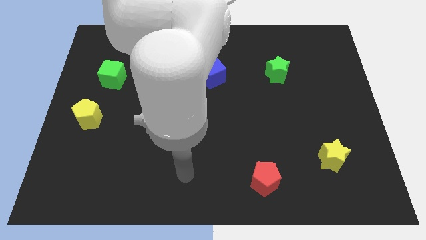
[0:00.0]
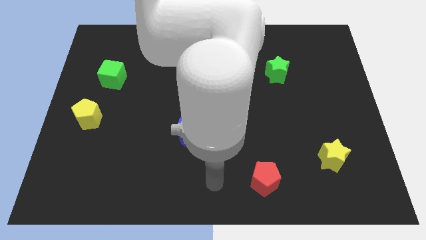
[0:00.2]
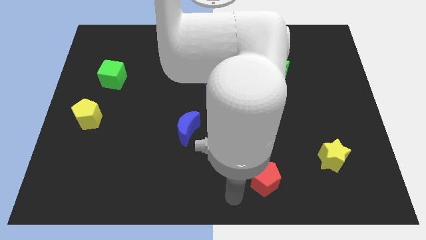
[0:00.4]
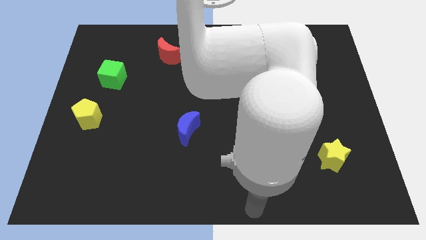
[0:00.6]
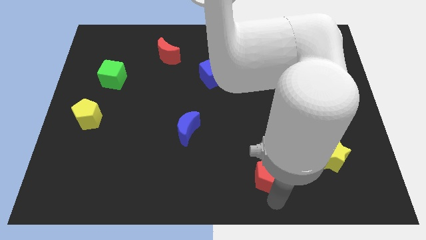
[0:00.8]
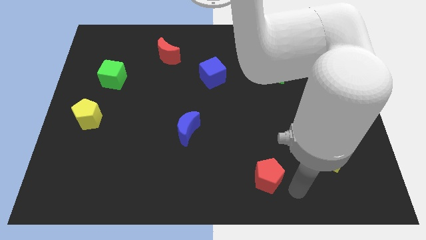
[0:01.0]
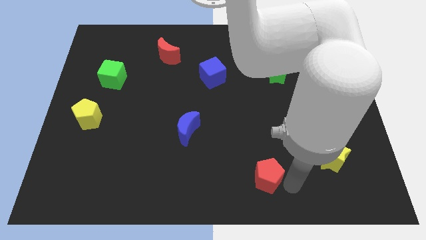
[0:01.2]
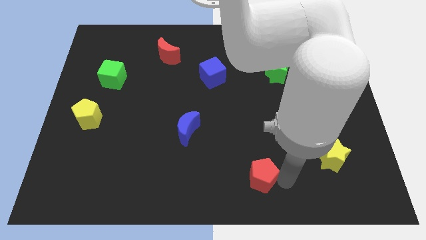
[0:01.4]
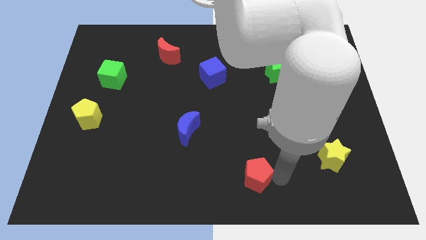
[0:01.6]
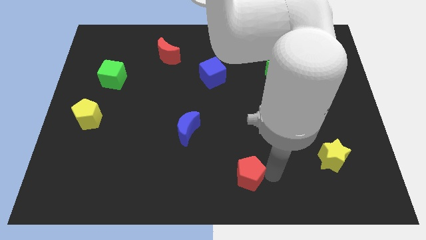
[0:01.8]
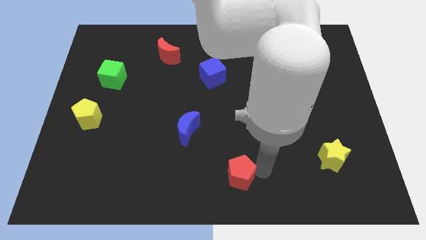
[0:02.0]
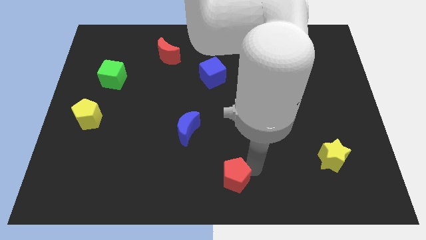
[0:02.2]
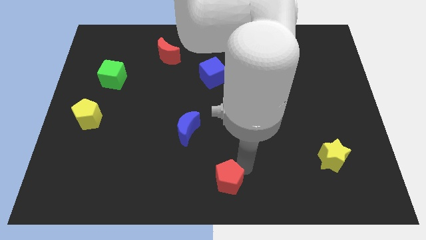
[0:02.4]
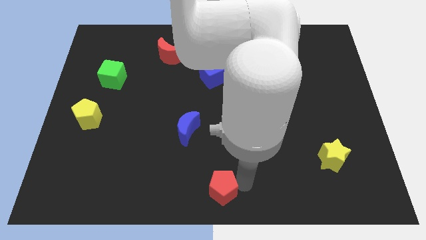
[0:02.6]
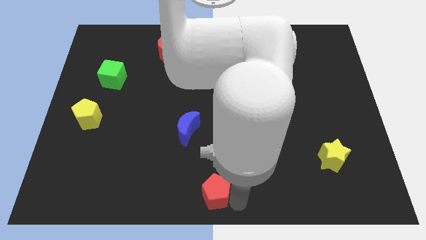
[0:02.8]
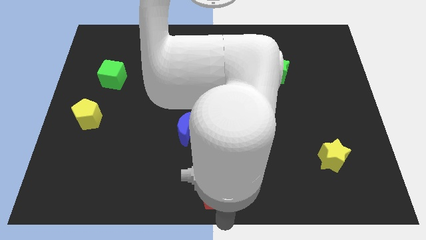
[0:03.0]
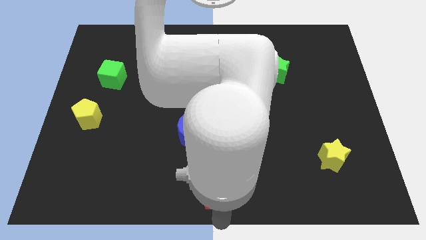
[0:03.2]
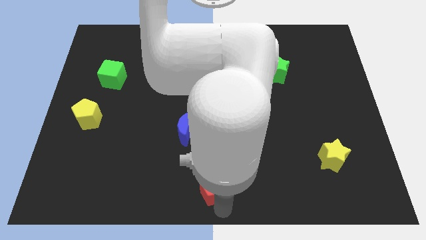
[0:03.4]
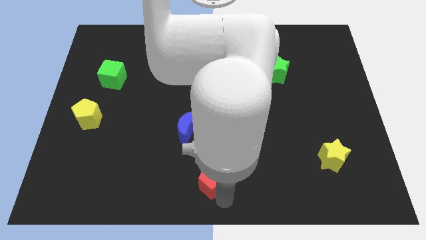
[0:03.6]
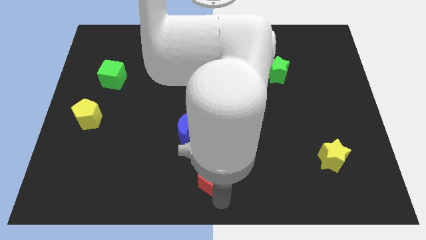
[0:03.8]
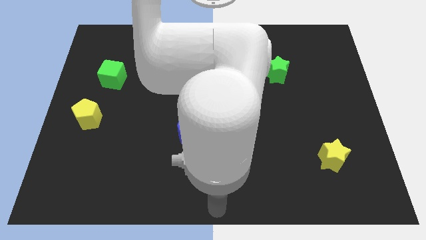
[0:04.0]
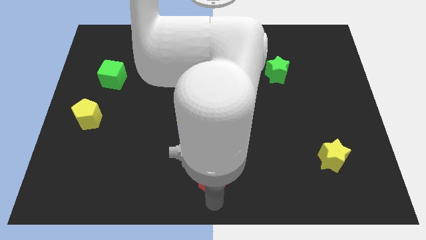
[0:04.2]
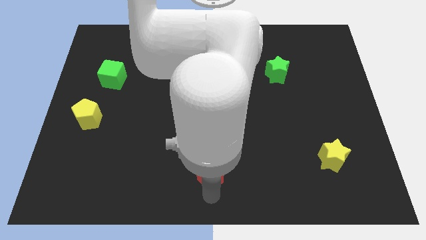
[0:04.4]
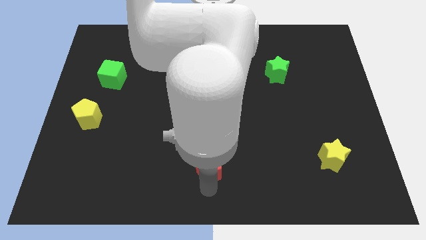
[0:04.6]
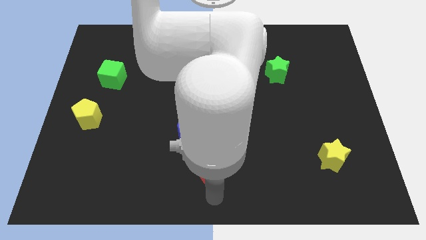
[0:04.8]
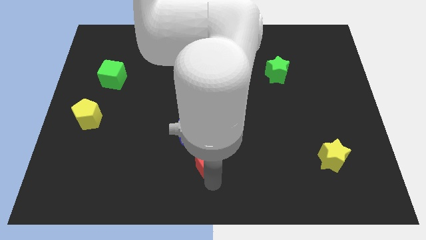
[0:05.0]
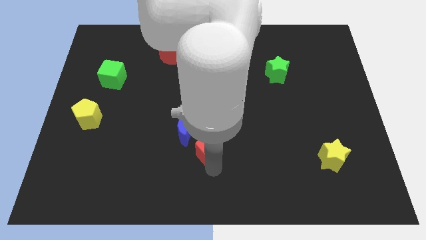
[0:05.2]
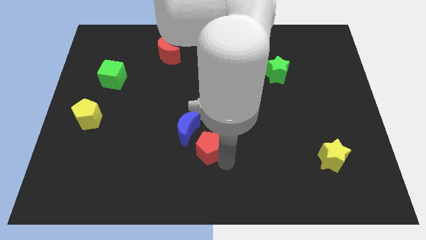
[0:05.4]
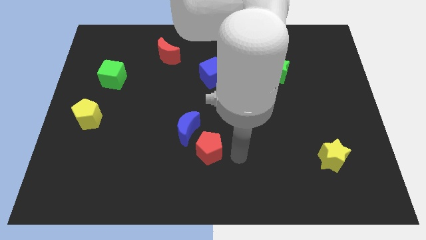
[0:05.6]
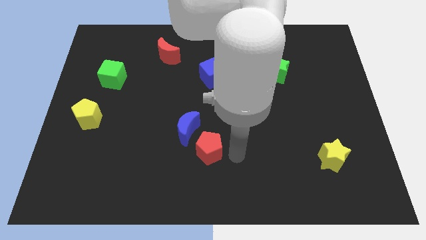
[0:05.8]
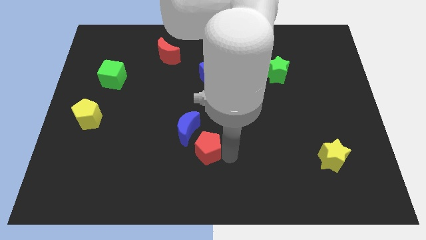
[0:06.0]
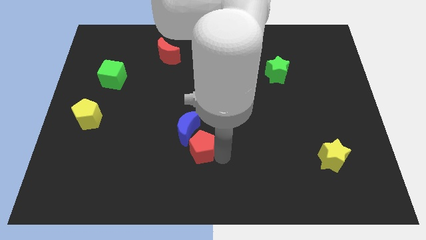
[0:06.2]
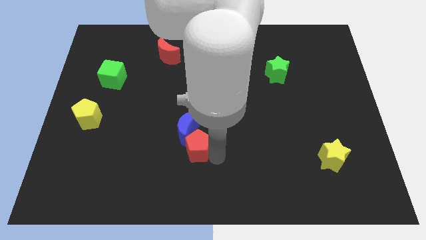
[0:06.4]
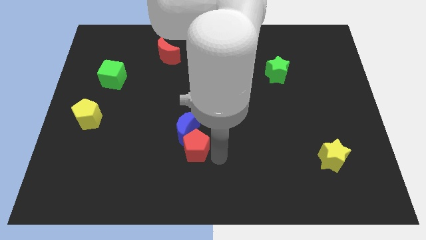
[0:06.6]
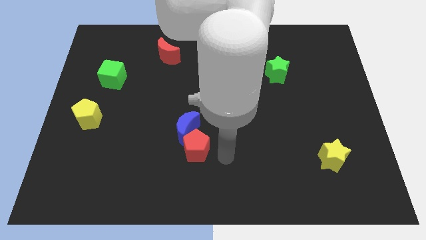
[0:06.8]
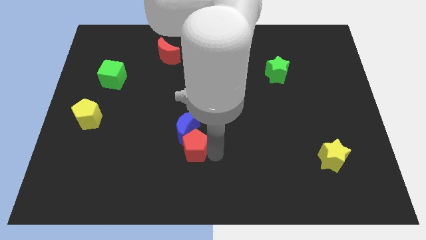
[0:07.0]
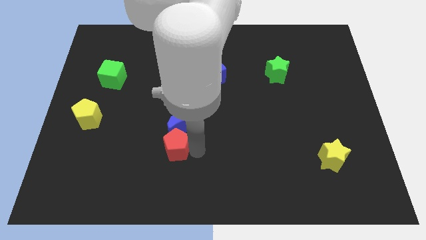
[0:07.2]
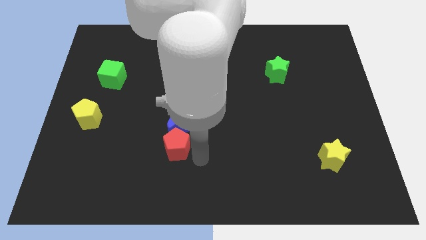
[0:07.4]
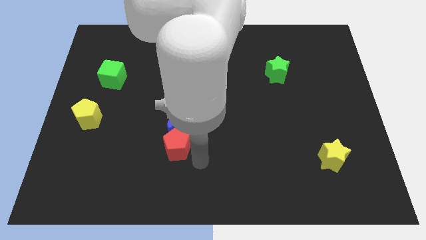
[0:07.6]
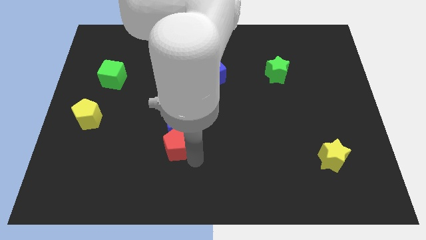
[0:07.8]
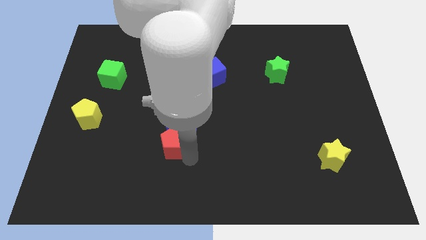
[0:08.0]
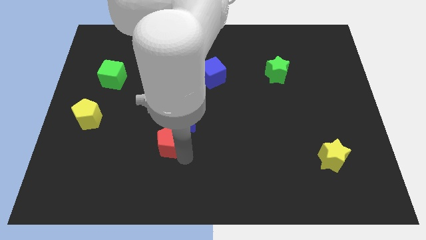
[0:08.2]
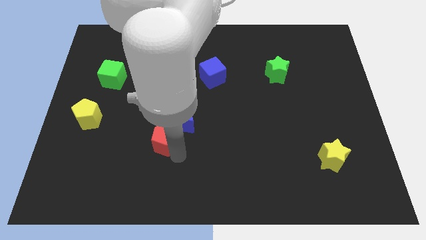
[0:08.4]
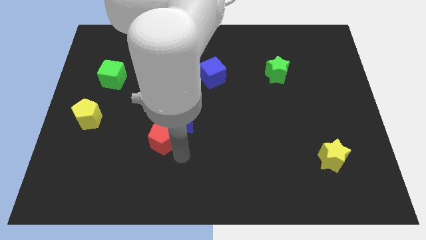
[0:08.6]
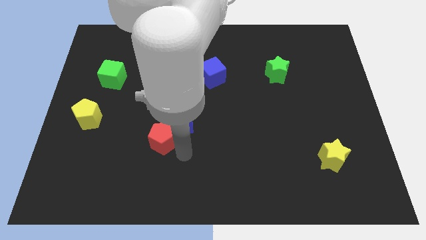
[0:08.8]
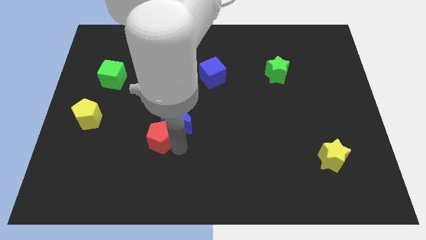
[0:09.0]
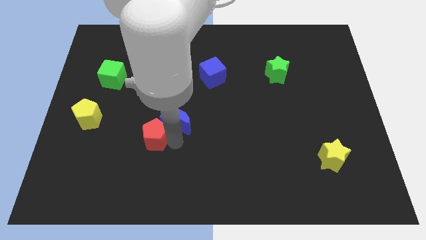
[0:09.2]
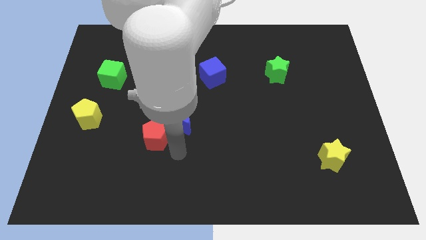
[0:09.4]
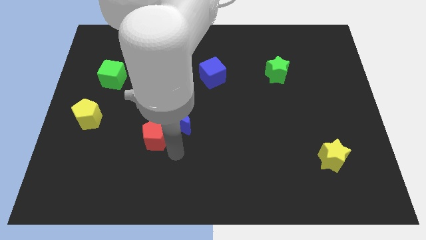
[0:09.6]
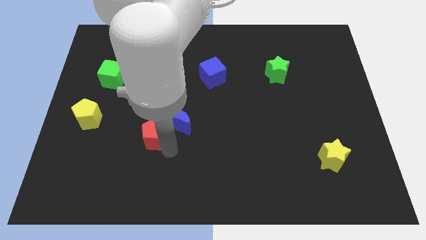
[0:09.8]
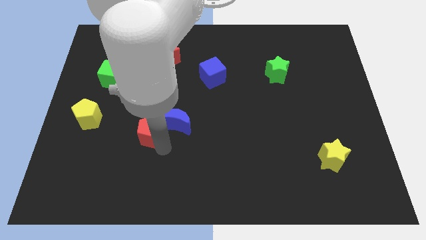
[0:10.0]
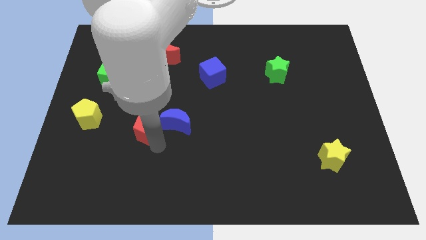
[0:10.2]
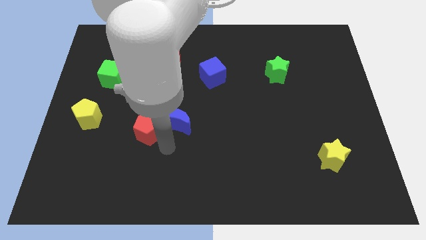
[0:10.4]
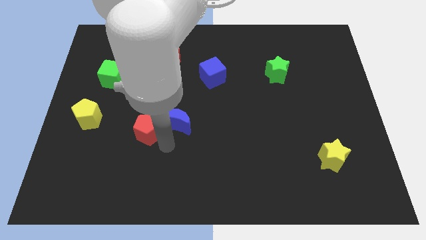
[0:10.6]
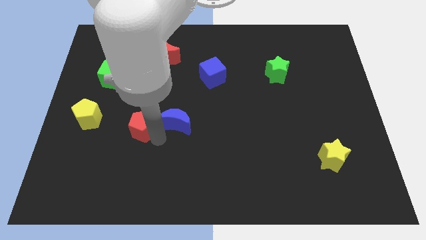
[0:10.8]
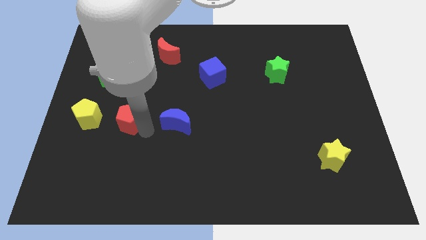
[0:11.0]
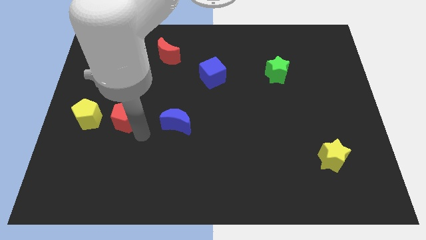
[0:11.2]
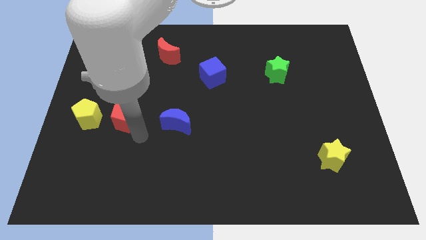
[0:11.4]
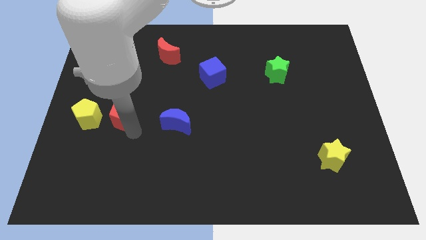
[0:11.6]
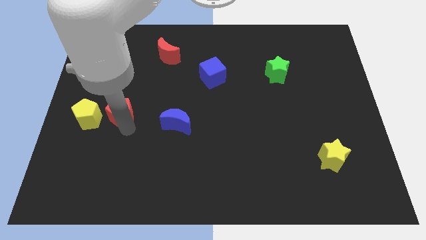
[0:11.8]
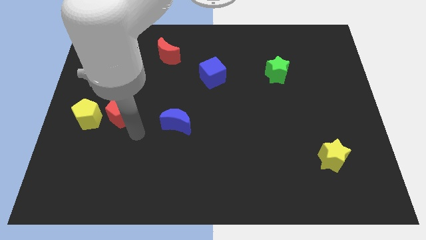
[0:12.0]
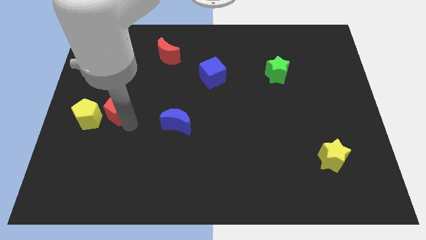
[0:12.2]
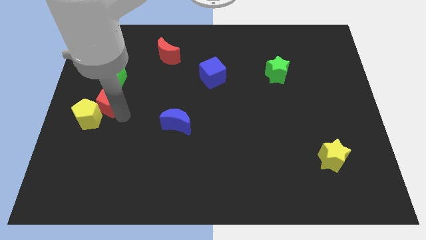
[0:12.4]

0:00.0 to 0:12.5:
slide the red pentagon to the top of the yellow pentagon
